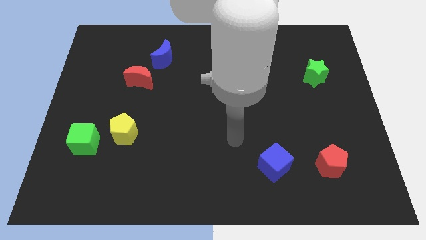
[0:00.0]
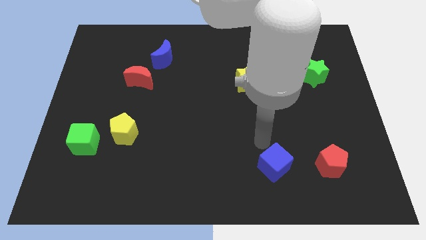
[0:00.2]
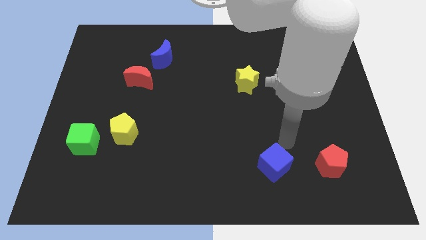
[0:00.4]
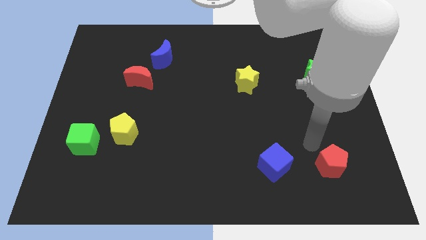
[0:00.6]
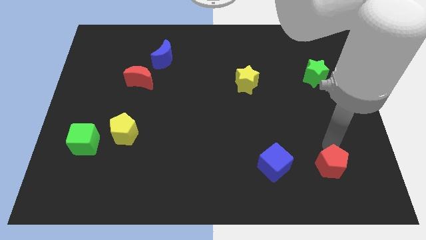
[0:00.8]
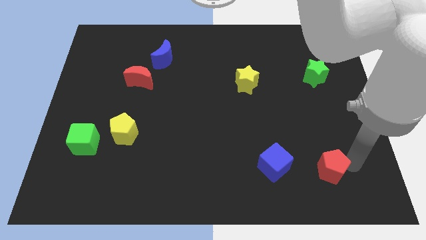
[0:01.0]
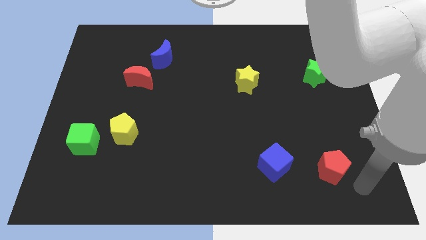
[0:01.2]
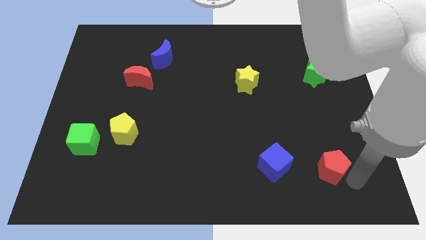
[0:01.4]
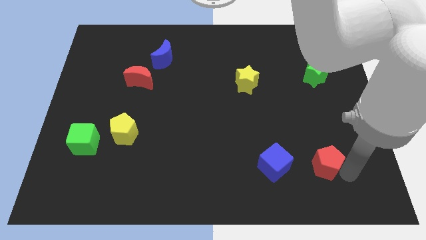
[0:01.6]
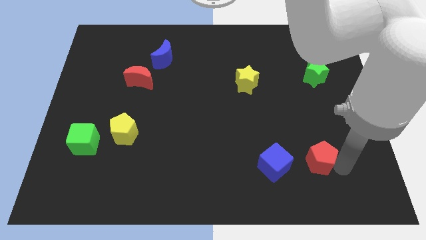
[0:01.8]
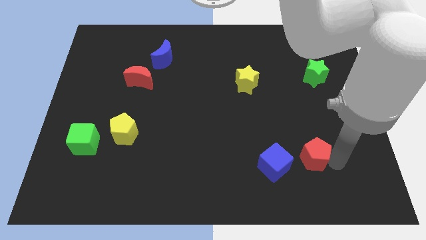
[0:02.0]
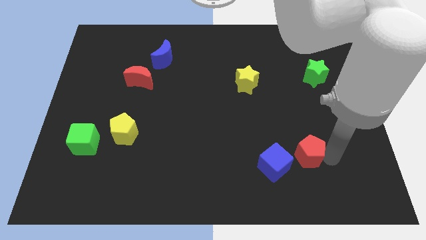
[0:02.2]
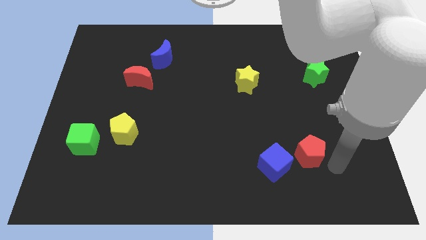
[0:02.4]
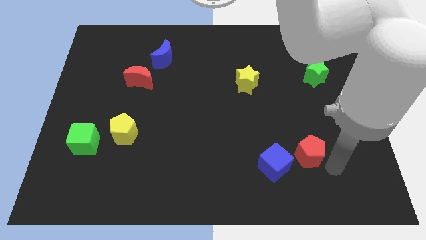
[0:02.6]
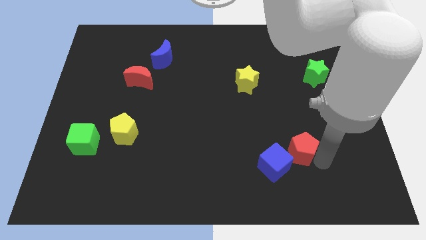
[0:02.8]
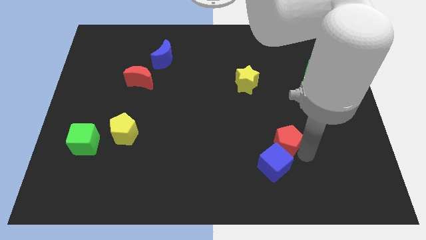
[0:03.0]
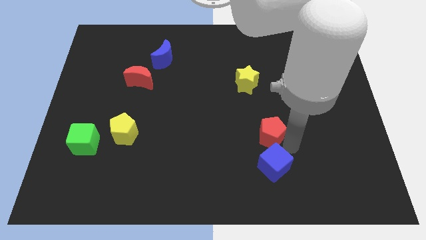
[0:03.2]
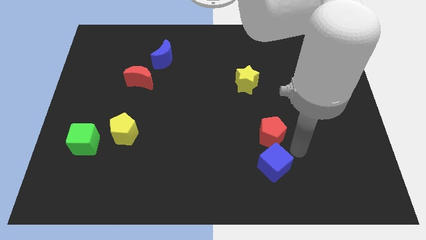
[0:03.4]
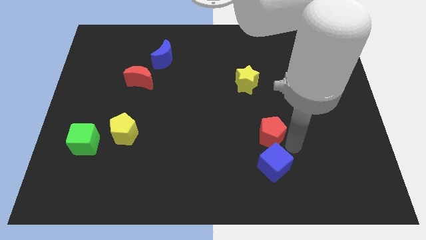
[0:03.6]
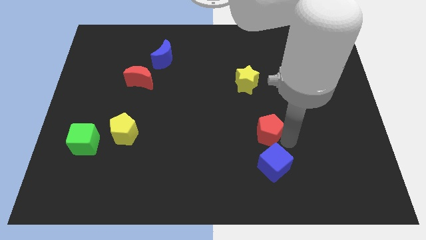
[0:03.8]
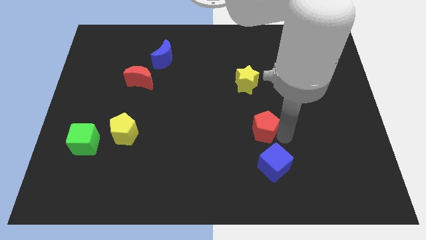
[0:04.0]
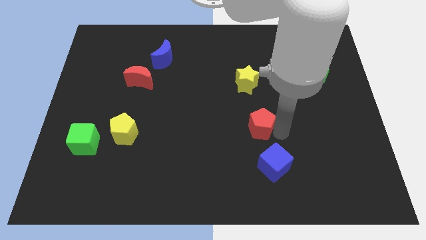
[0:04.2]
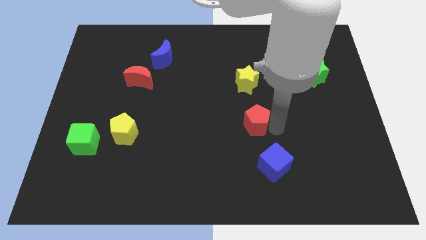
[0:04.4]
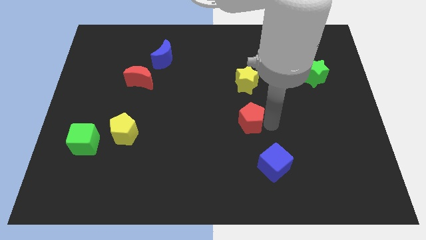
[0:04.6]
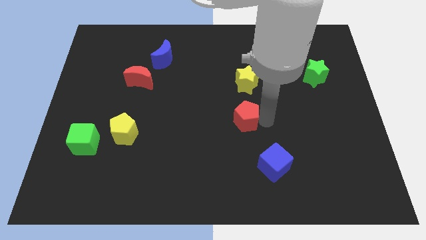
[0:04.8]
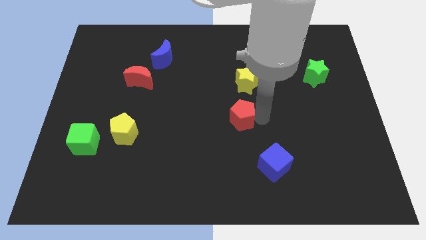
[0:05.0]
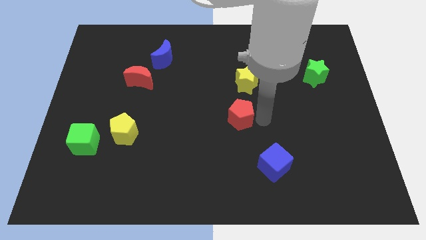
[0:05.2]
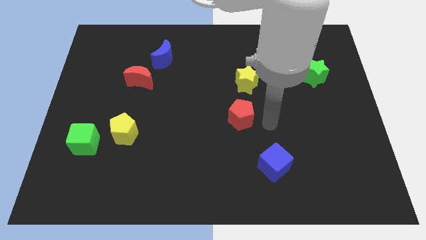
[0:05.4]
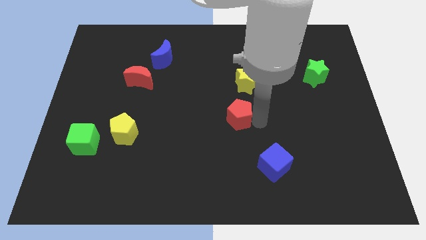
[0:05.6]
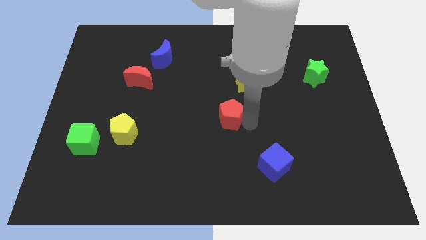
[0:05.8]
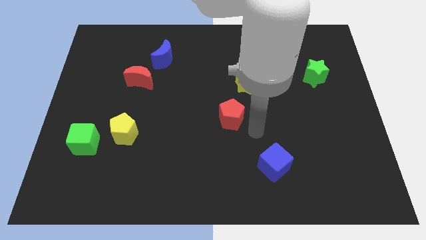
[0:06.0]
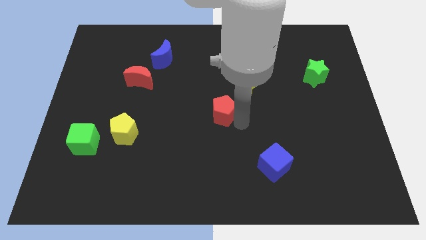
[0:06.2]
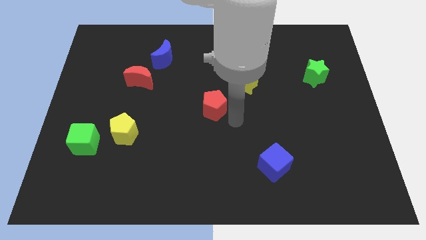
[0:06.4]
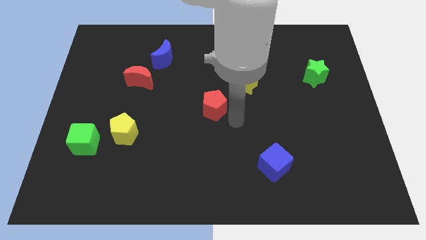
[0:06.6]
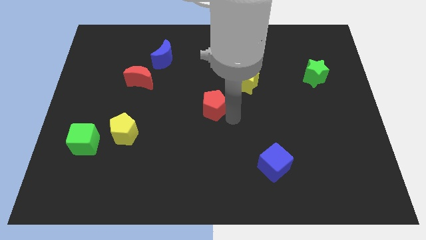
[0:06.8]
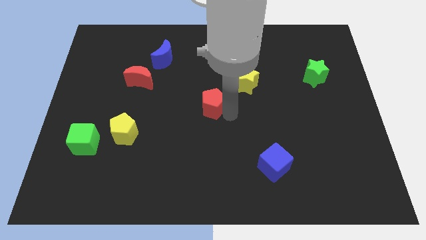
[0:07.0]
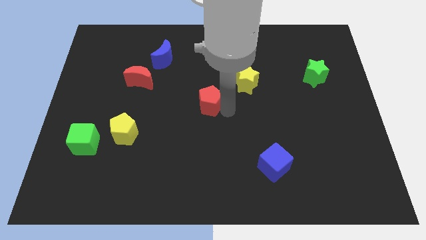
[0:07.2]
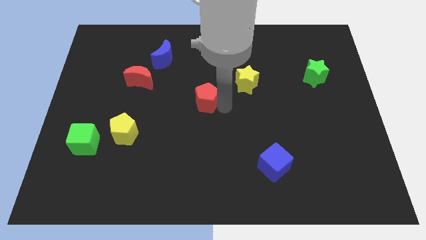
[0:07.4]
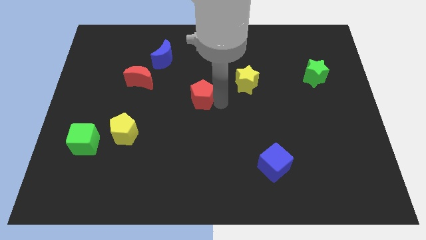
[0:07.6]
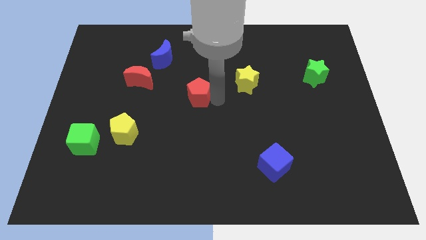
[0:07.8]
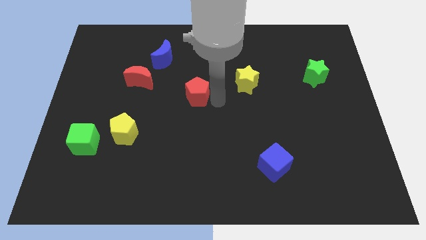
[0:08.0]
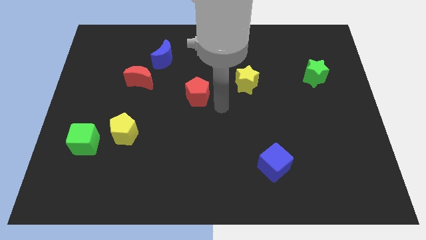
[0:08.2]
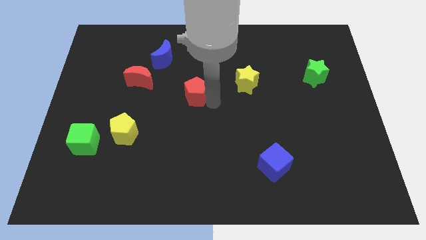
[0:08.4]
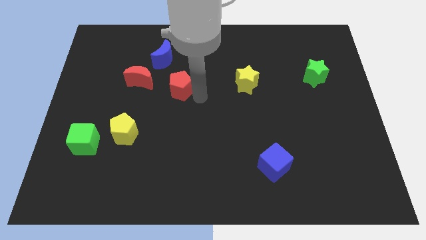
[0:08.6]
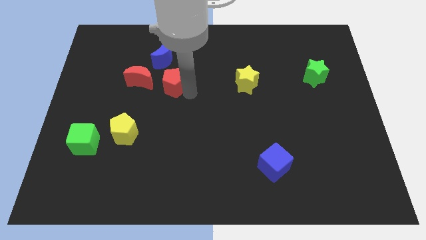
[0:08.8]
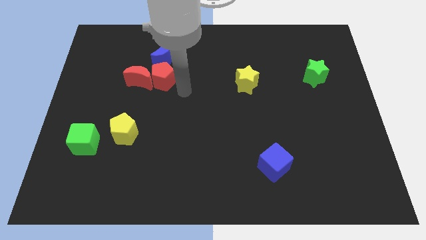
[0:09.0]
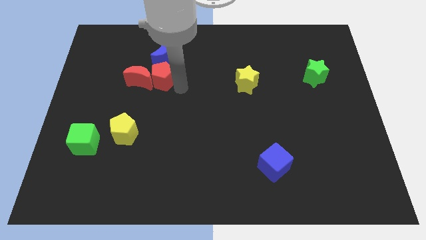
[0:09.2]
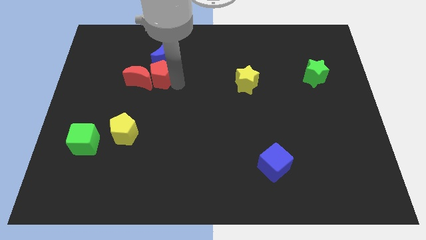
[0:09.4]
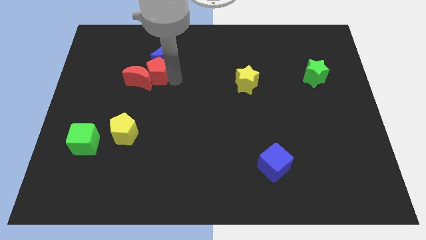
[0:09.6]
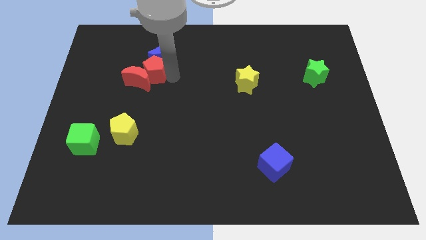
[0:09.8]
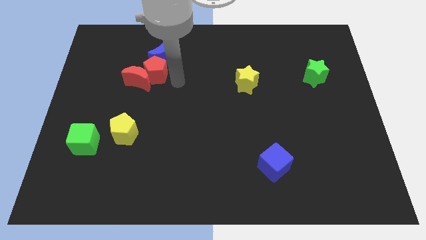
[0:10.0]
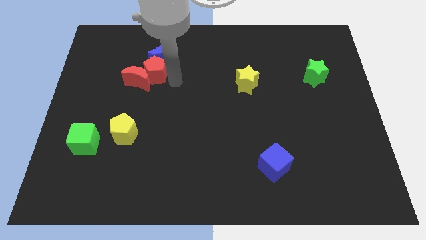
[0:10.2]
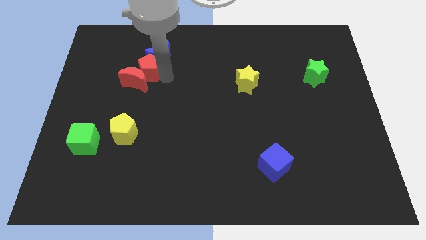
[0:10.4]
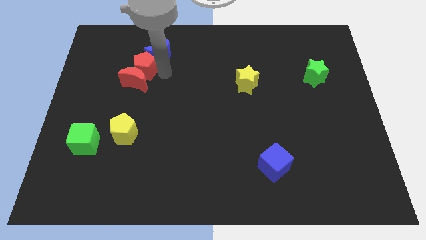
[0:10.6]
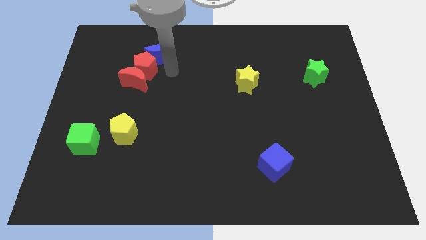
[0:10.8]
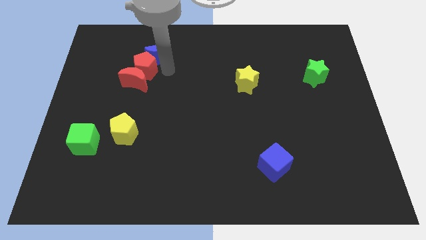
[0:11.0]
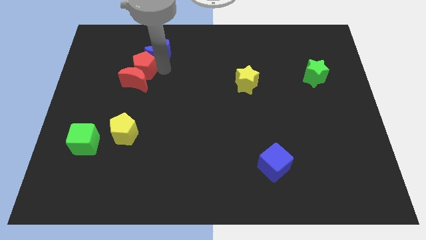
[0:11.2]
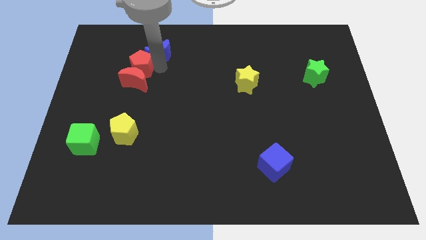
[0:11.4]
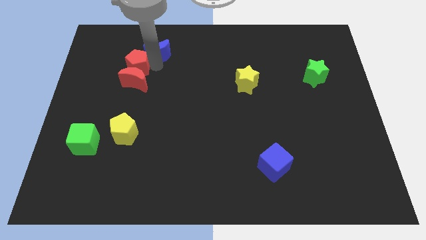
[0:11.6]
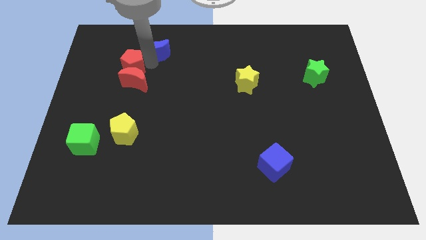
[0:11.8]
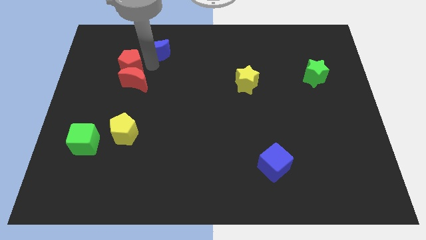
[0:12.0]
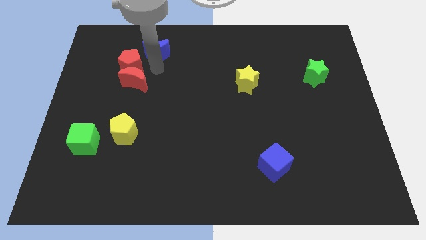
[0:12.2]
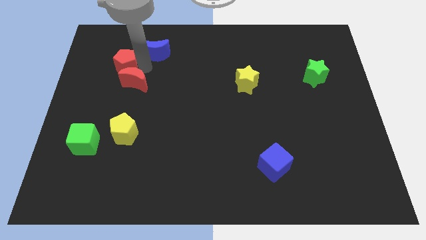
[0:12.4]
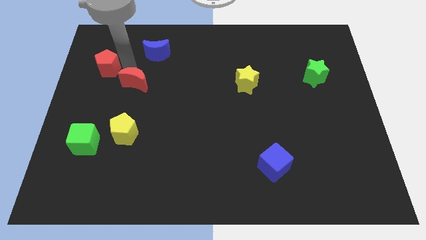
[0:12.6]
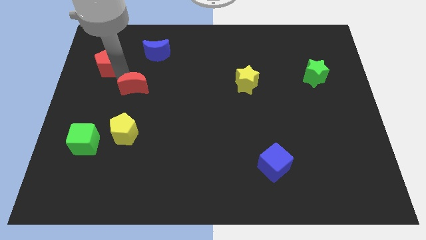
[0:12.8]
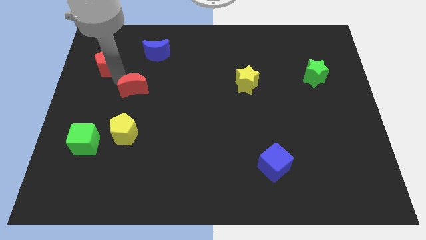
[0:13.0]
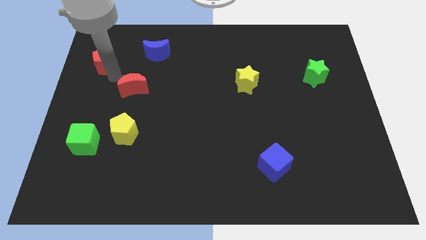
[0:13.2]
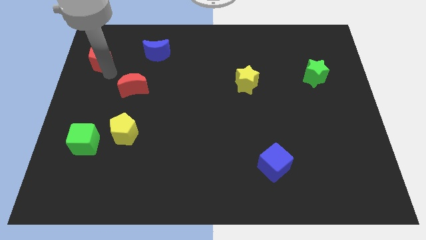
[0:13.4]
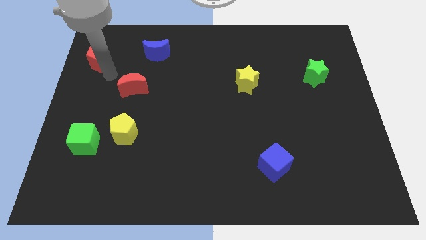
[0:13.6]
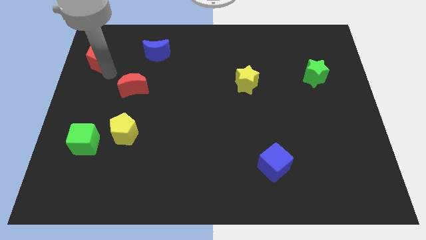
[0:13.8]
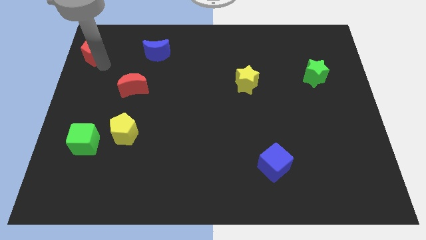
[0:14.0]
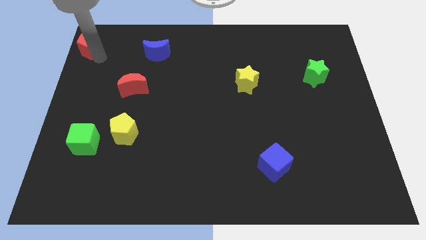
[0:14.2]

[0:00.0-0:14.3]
put the red pentagon to the top left of the board
